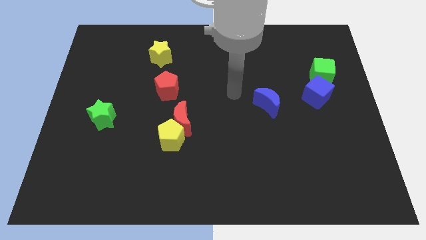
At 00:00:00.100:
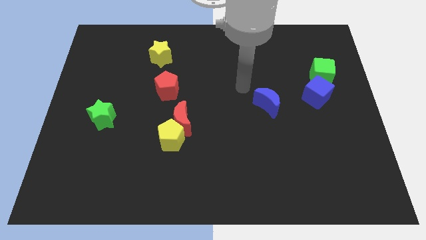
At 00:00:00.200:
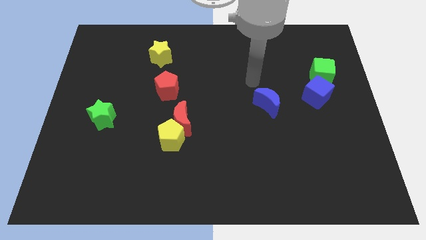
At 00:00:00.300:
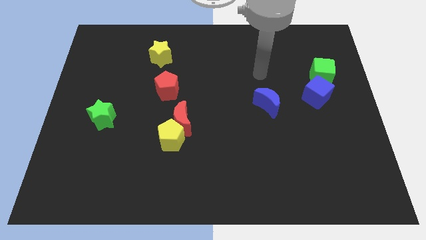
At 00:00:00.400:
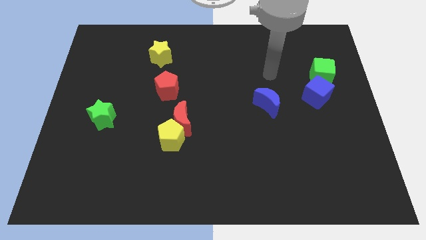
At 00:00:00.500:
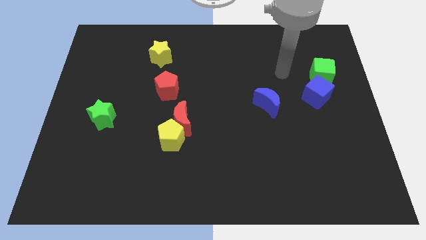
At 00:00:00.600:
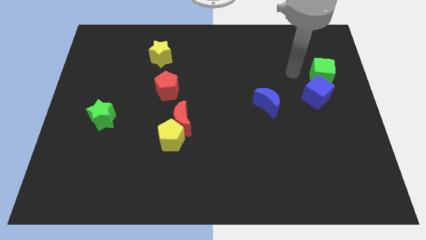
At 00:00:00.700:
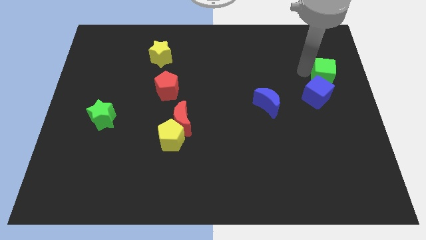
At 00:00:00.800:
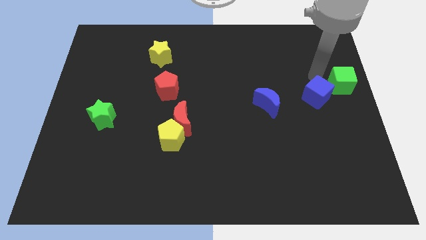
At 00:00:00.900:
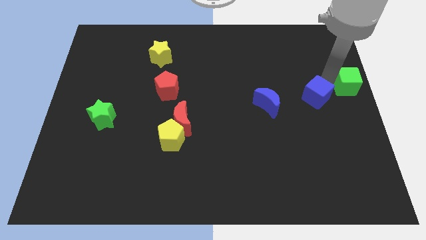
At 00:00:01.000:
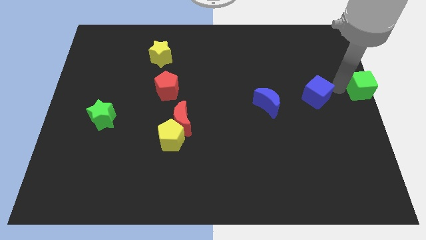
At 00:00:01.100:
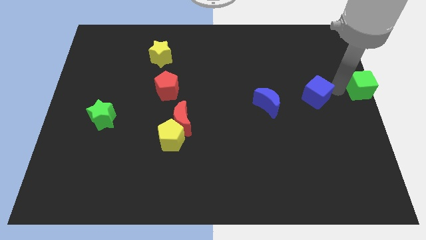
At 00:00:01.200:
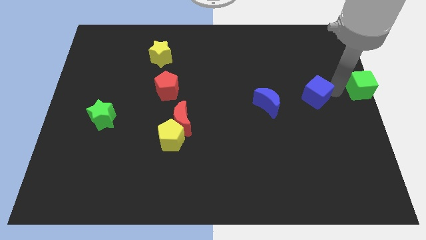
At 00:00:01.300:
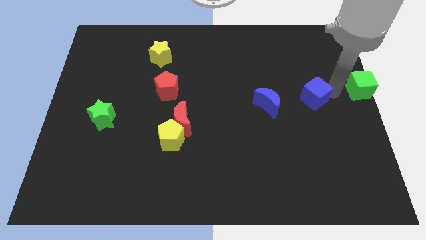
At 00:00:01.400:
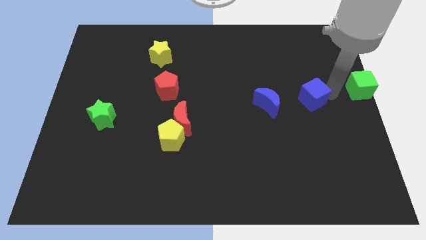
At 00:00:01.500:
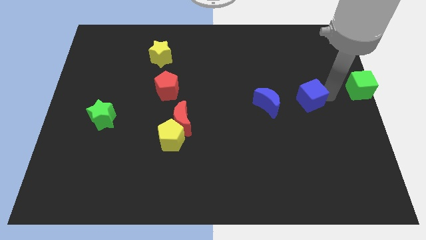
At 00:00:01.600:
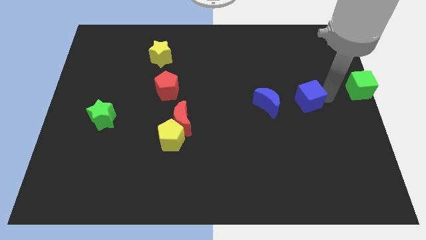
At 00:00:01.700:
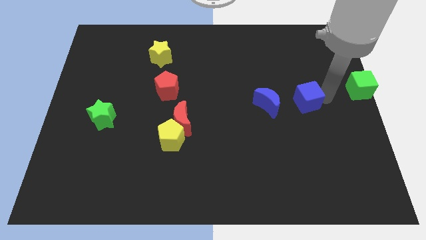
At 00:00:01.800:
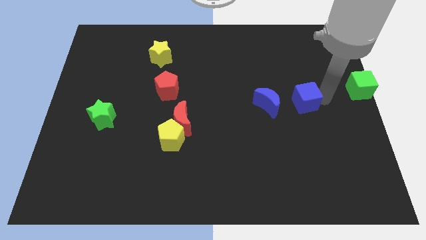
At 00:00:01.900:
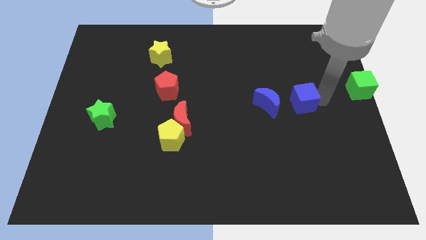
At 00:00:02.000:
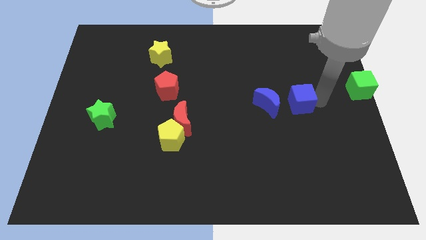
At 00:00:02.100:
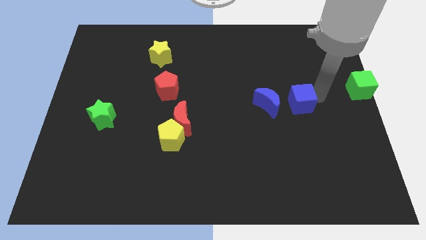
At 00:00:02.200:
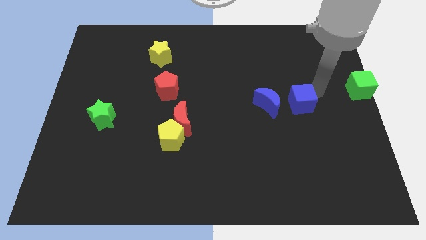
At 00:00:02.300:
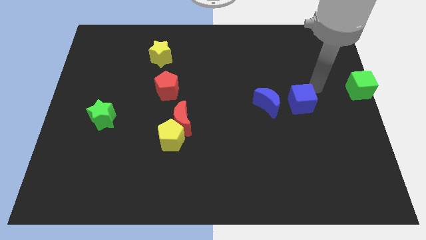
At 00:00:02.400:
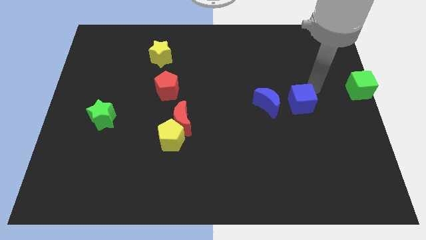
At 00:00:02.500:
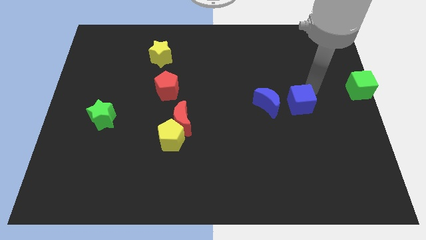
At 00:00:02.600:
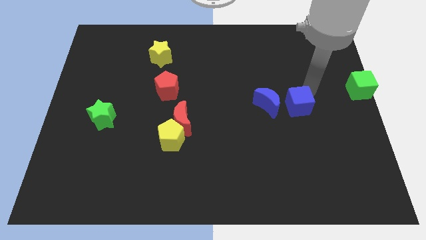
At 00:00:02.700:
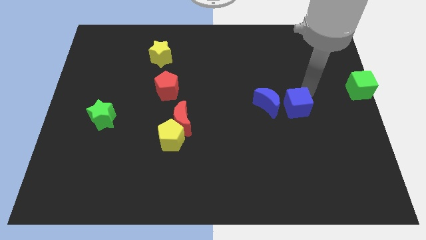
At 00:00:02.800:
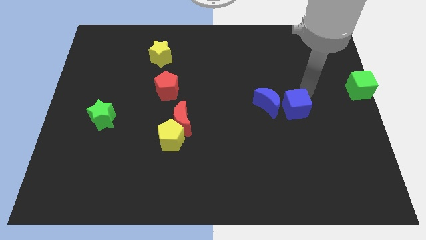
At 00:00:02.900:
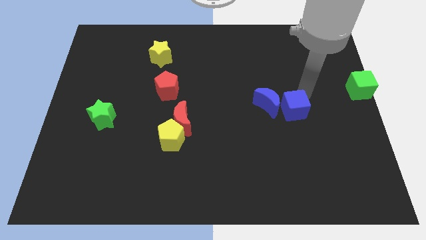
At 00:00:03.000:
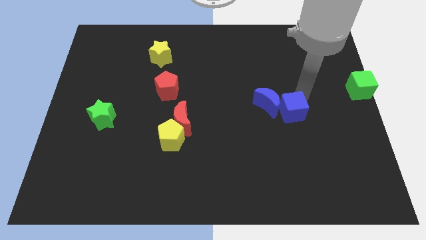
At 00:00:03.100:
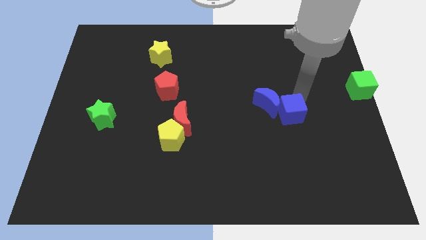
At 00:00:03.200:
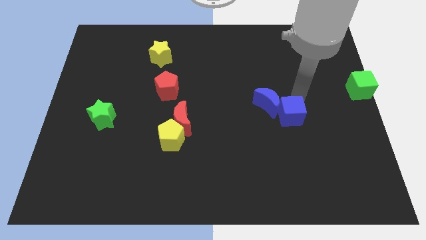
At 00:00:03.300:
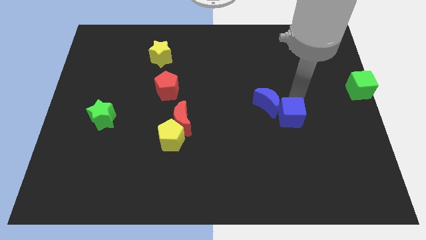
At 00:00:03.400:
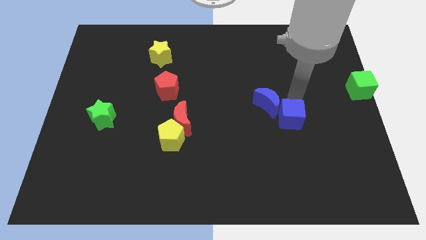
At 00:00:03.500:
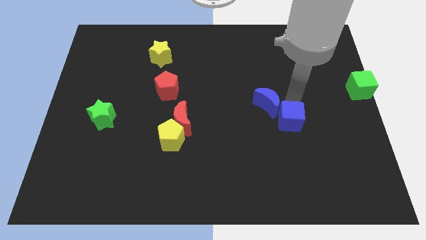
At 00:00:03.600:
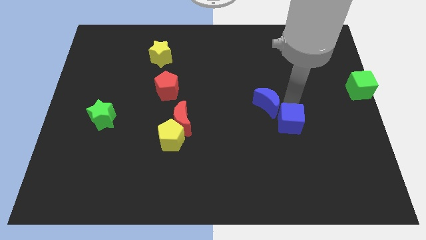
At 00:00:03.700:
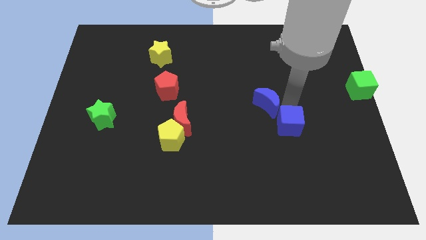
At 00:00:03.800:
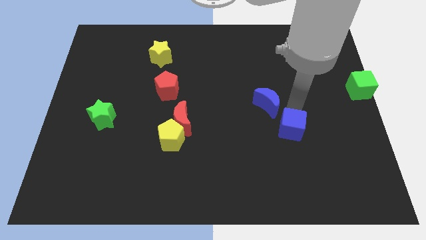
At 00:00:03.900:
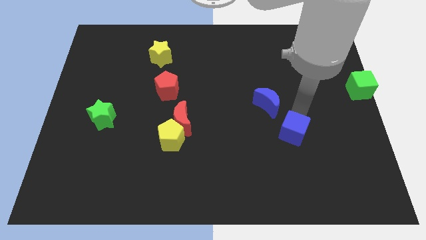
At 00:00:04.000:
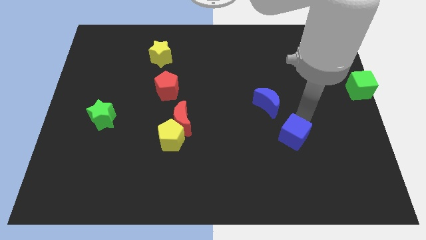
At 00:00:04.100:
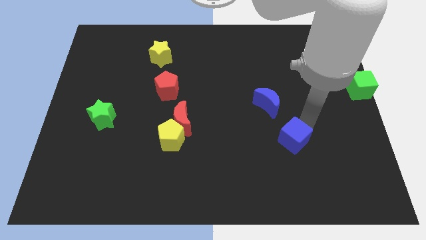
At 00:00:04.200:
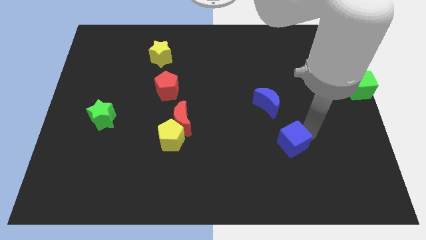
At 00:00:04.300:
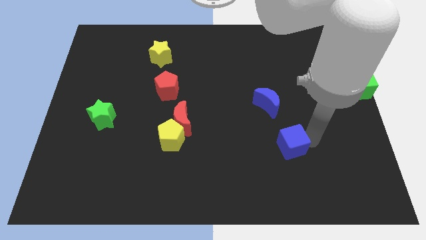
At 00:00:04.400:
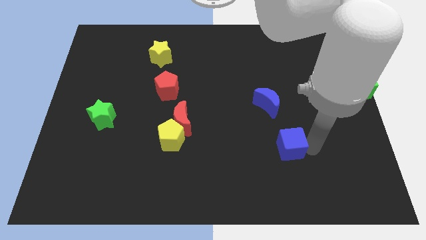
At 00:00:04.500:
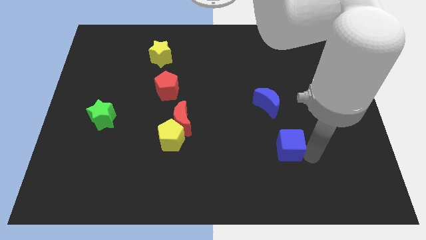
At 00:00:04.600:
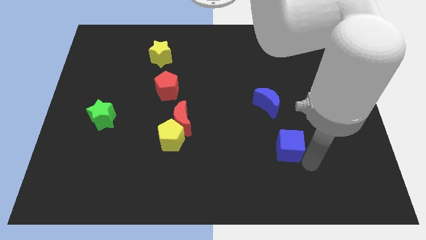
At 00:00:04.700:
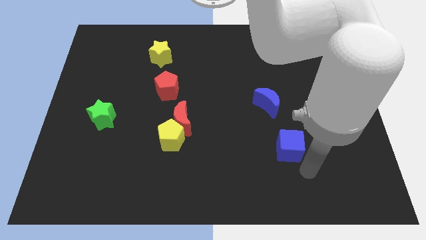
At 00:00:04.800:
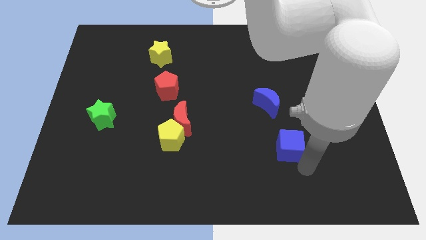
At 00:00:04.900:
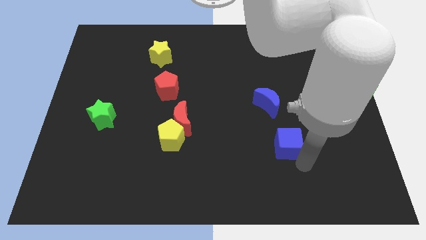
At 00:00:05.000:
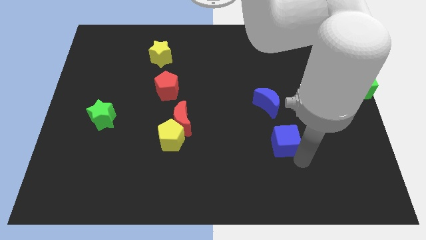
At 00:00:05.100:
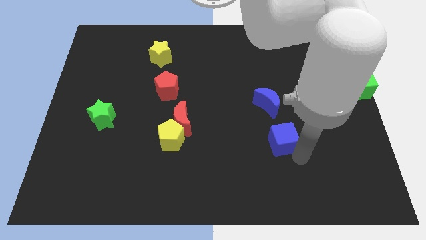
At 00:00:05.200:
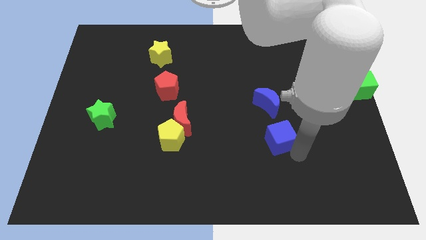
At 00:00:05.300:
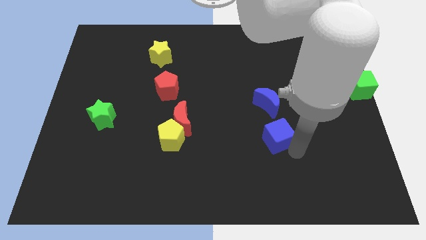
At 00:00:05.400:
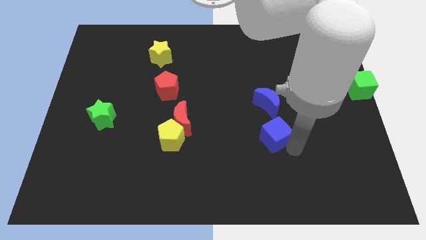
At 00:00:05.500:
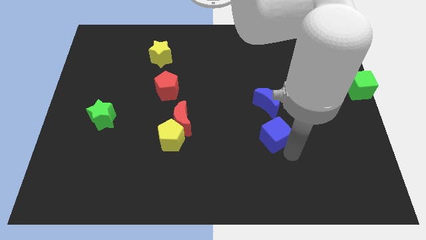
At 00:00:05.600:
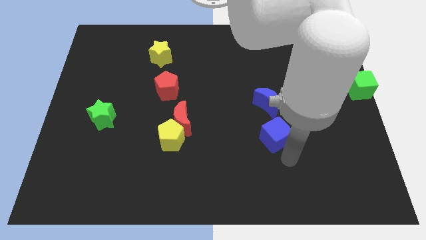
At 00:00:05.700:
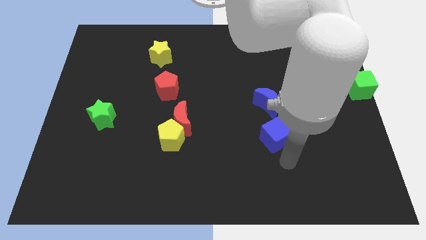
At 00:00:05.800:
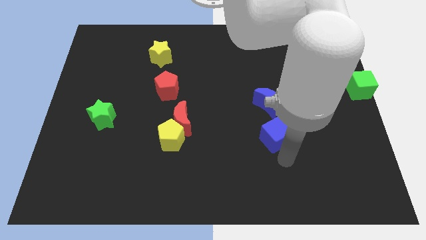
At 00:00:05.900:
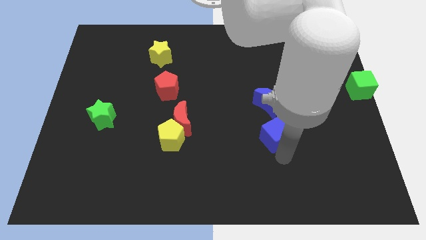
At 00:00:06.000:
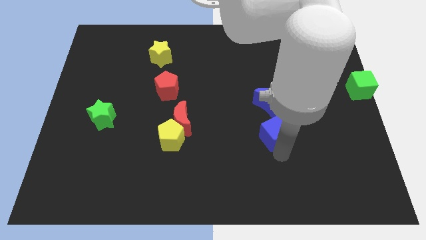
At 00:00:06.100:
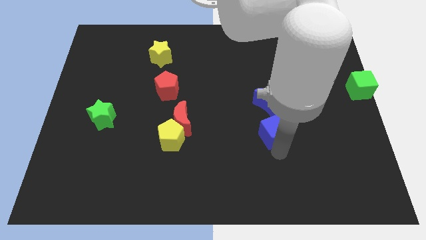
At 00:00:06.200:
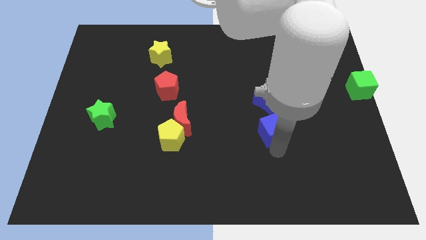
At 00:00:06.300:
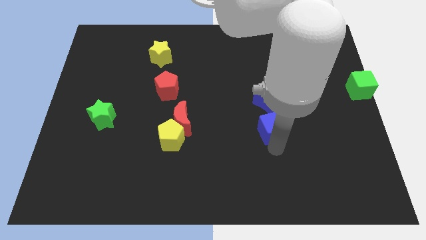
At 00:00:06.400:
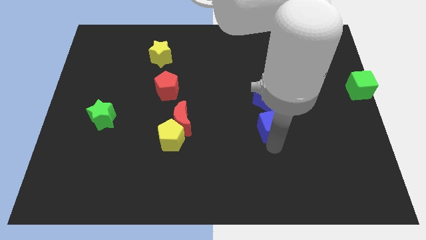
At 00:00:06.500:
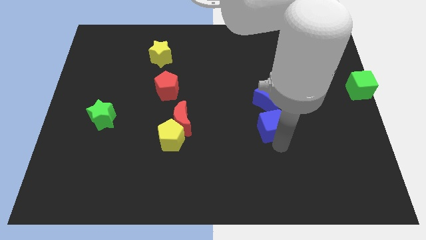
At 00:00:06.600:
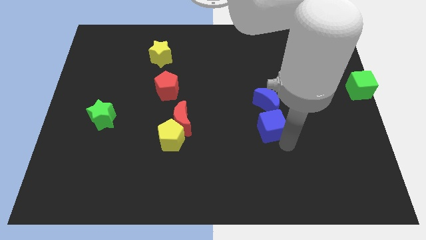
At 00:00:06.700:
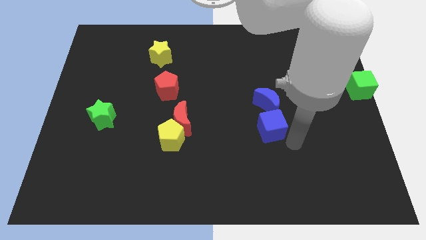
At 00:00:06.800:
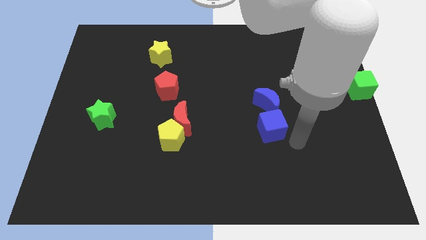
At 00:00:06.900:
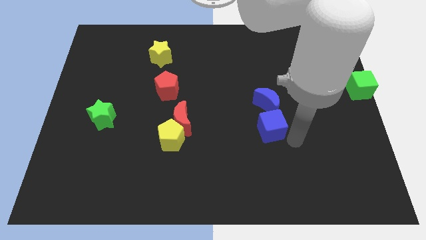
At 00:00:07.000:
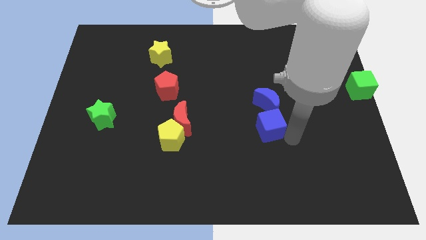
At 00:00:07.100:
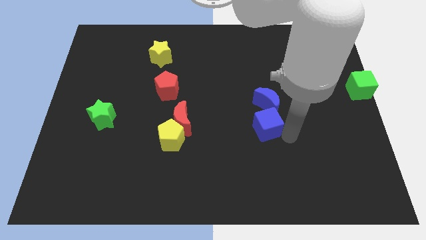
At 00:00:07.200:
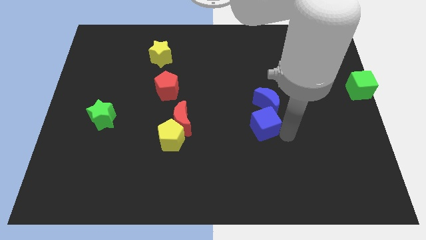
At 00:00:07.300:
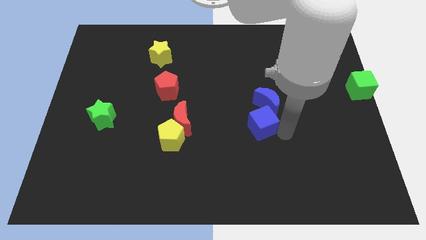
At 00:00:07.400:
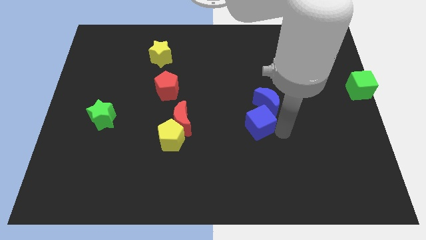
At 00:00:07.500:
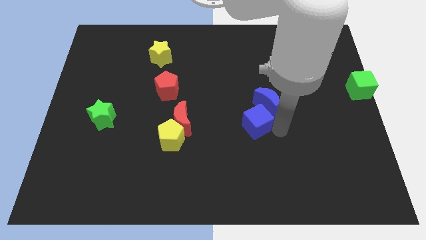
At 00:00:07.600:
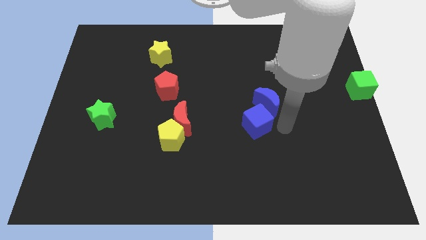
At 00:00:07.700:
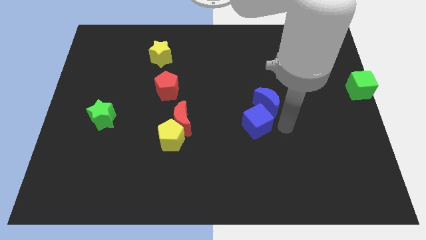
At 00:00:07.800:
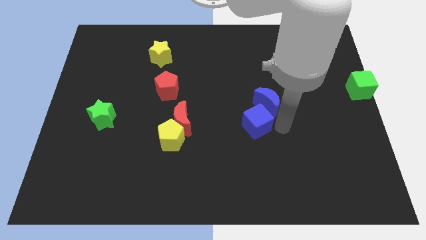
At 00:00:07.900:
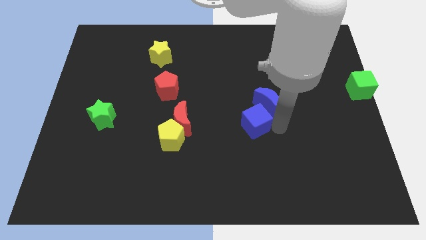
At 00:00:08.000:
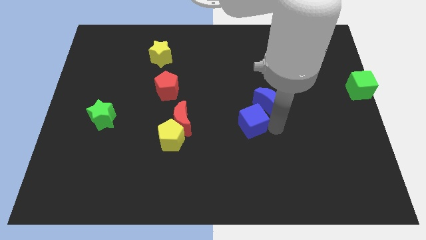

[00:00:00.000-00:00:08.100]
push the blue cube to the right side of the red moon
